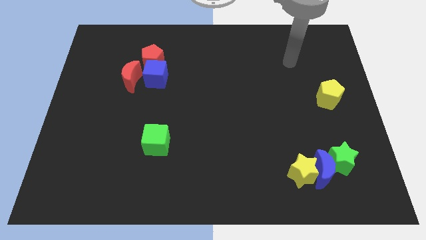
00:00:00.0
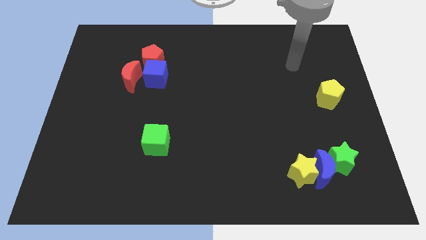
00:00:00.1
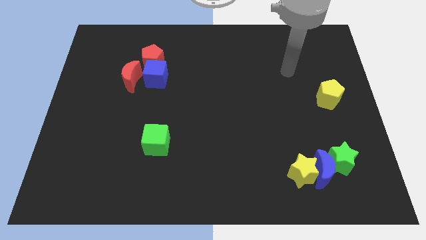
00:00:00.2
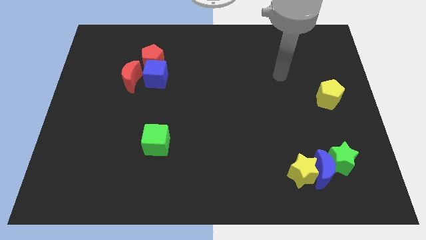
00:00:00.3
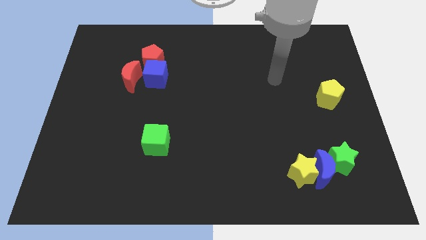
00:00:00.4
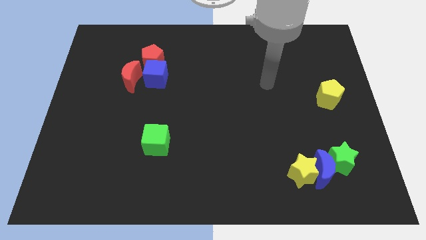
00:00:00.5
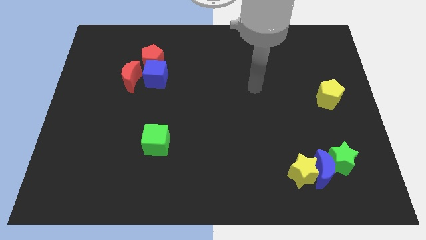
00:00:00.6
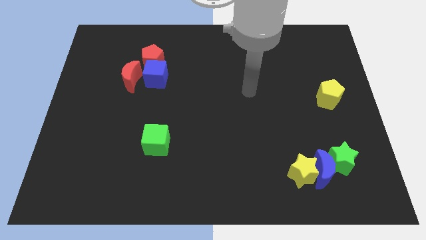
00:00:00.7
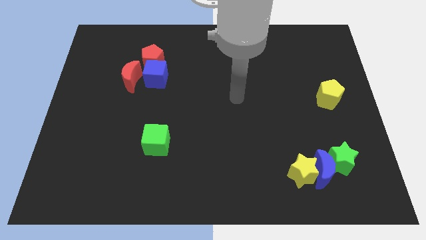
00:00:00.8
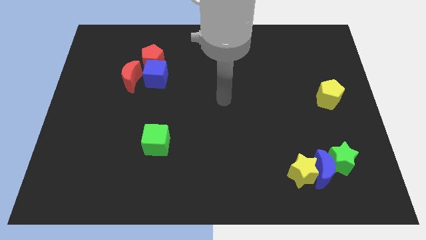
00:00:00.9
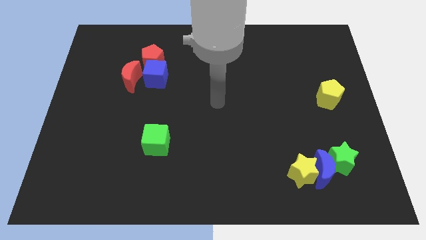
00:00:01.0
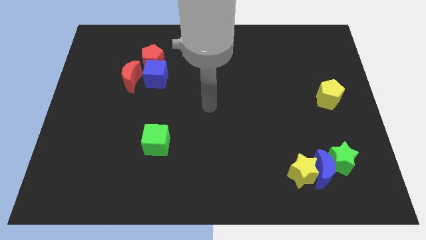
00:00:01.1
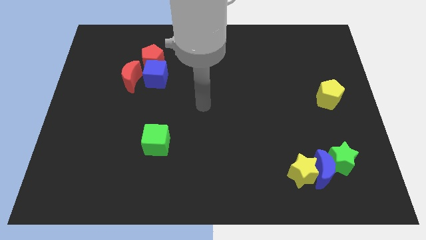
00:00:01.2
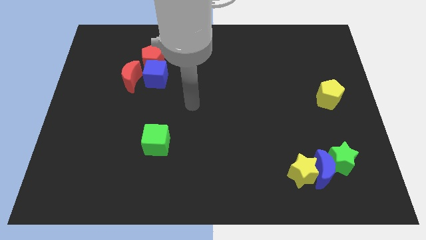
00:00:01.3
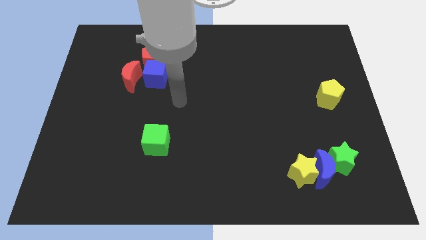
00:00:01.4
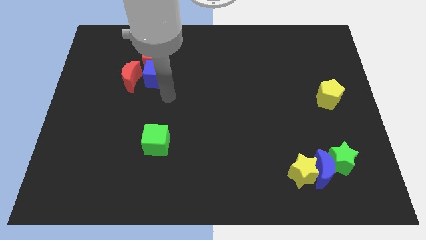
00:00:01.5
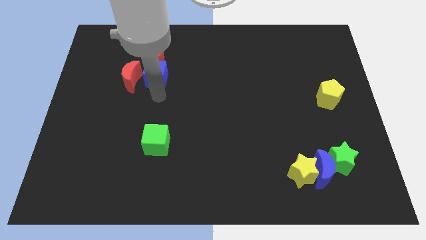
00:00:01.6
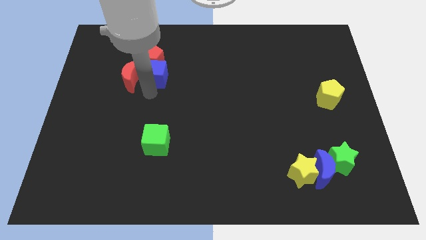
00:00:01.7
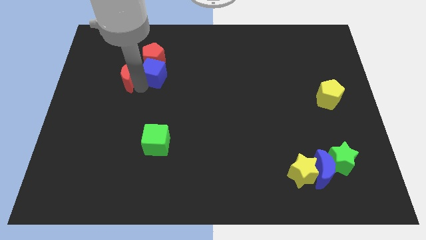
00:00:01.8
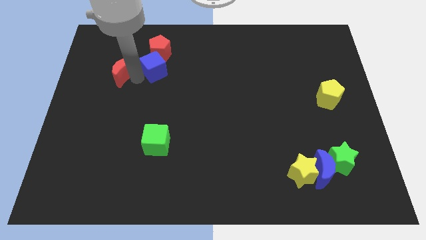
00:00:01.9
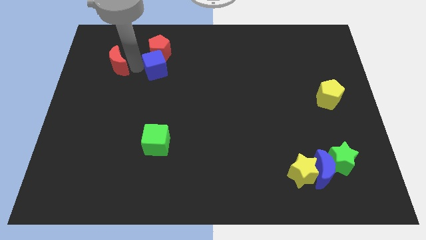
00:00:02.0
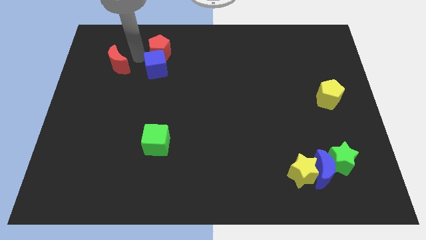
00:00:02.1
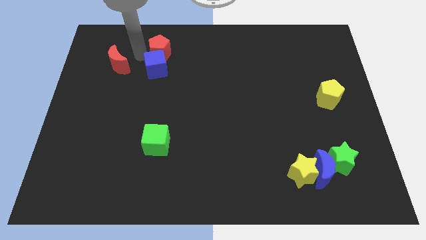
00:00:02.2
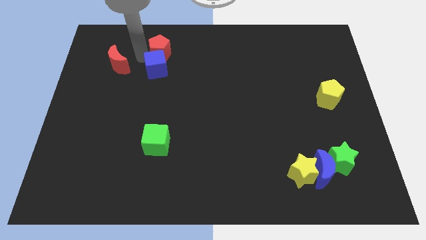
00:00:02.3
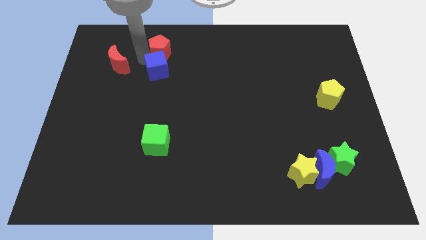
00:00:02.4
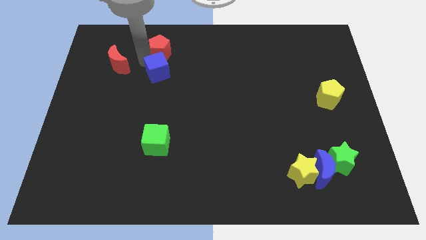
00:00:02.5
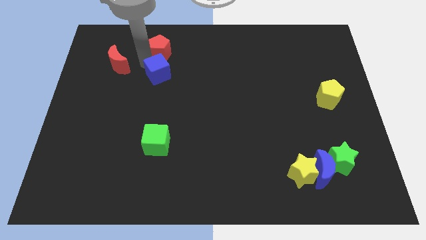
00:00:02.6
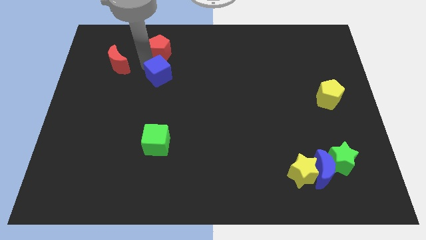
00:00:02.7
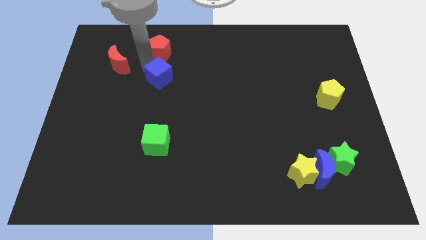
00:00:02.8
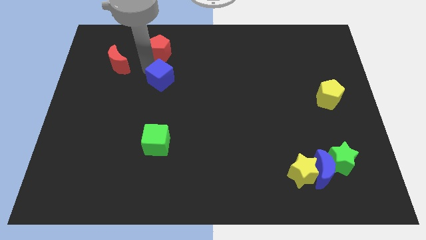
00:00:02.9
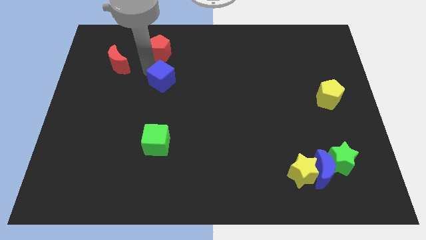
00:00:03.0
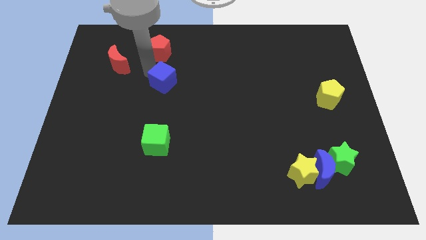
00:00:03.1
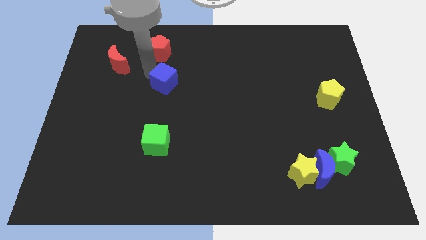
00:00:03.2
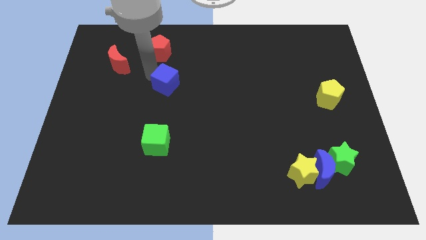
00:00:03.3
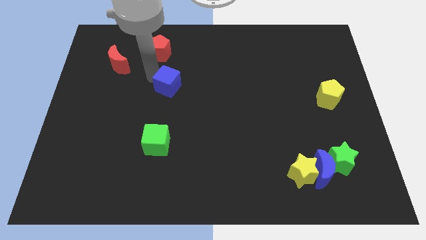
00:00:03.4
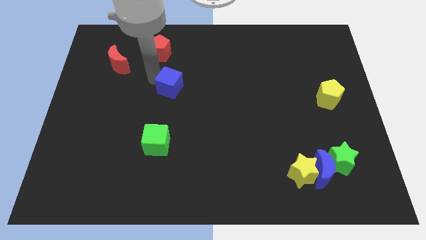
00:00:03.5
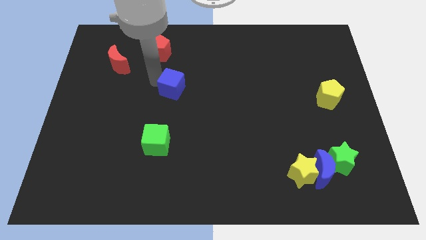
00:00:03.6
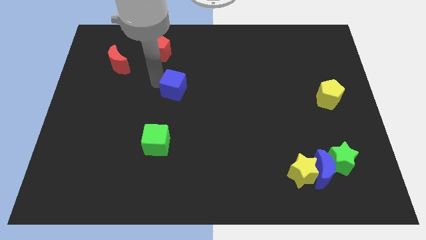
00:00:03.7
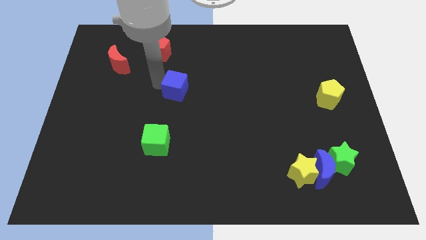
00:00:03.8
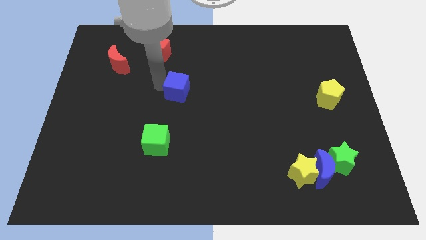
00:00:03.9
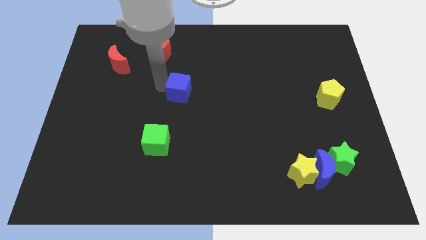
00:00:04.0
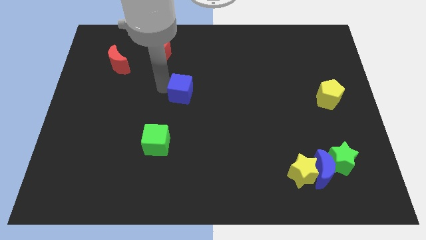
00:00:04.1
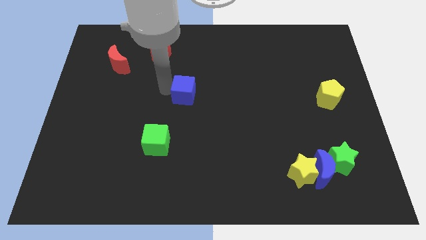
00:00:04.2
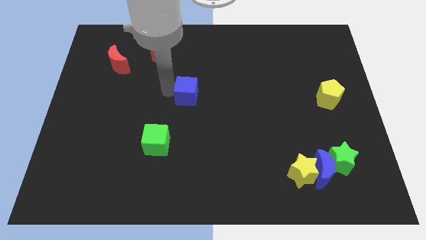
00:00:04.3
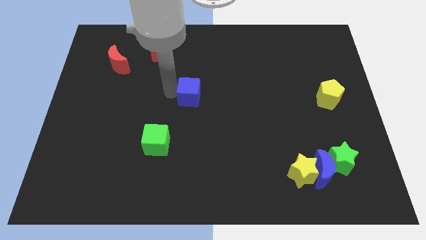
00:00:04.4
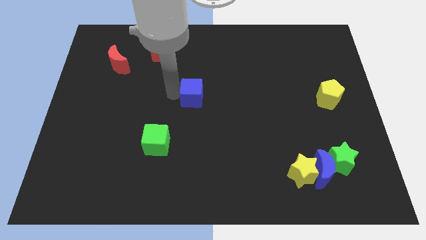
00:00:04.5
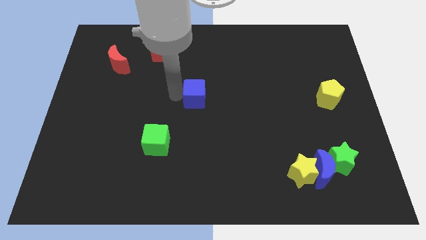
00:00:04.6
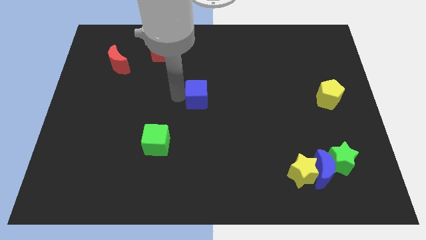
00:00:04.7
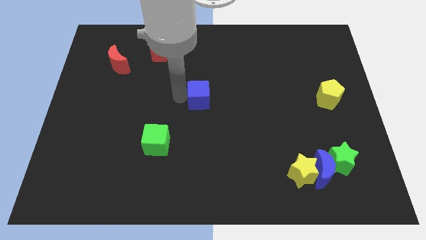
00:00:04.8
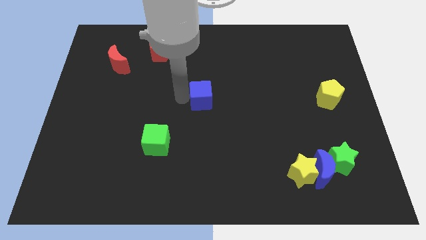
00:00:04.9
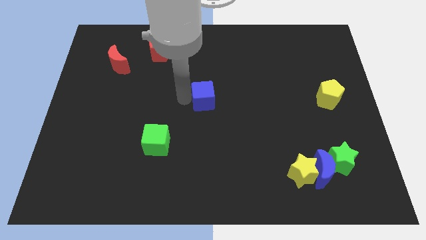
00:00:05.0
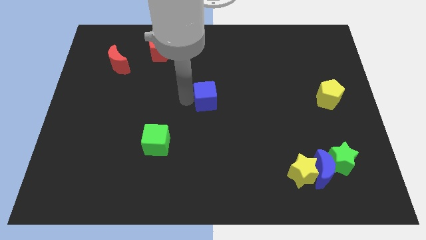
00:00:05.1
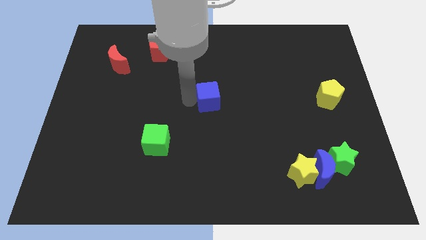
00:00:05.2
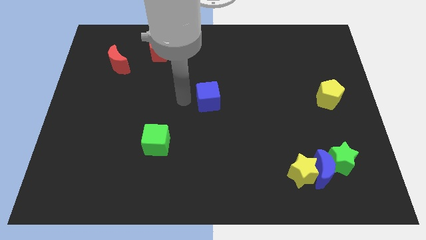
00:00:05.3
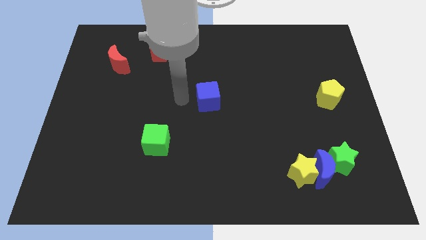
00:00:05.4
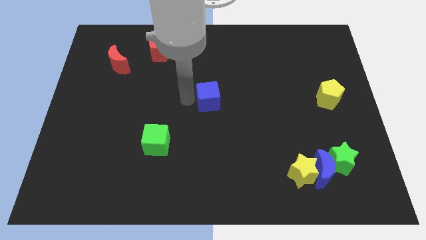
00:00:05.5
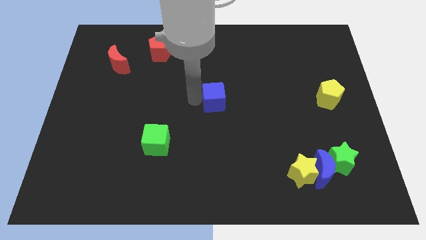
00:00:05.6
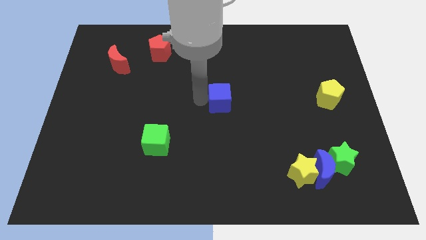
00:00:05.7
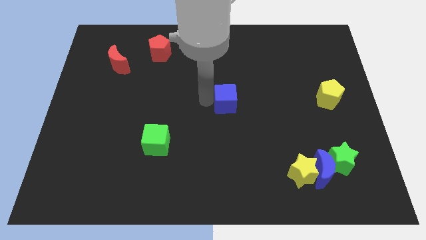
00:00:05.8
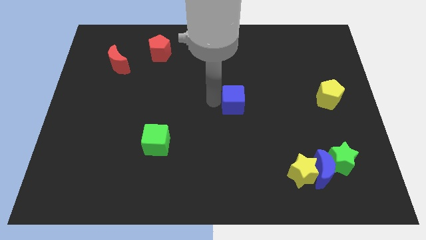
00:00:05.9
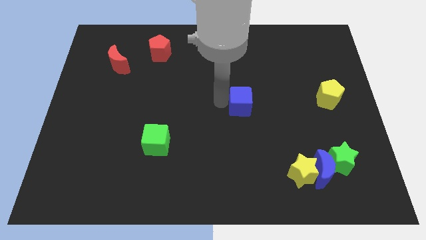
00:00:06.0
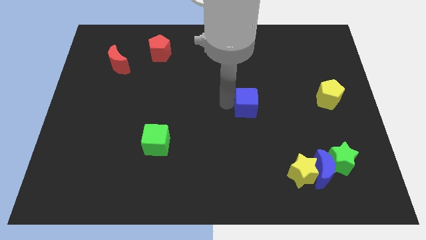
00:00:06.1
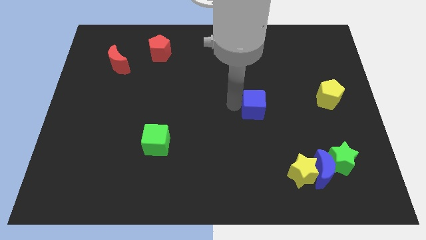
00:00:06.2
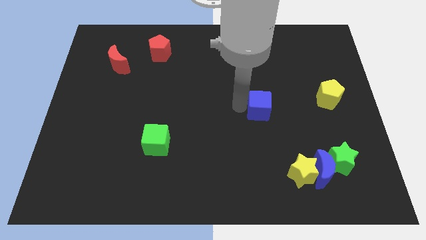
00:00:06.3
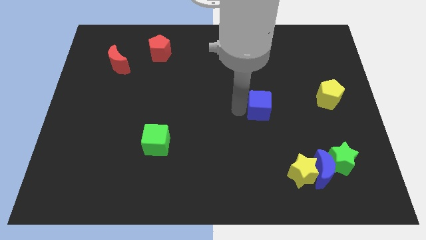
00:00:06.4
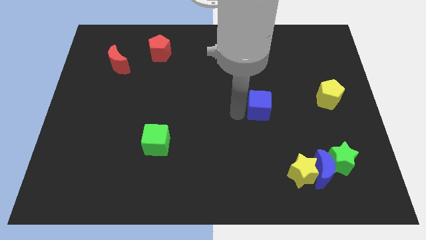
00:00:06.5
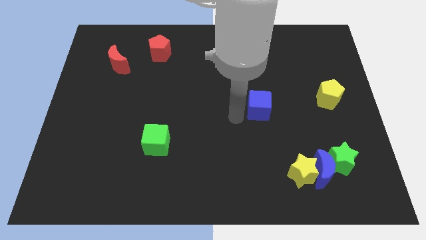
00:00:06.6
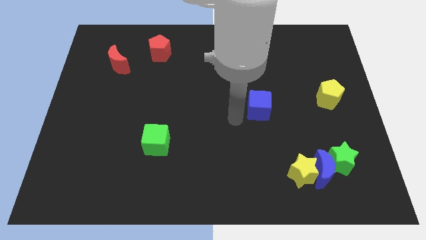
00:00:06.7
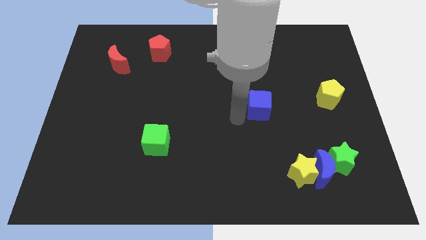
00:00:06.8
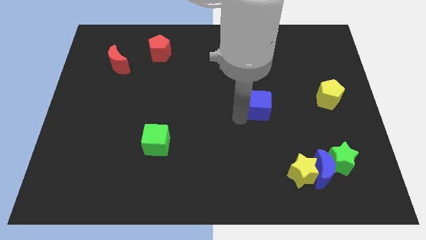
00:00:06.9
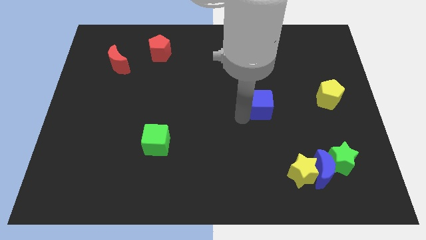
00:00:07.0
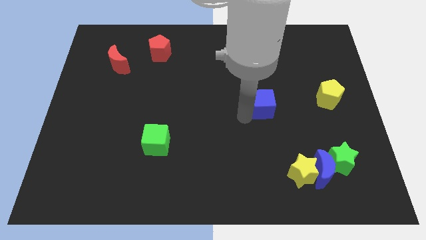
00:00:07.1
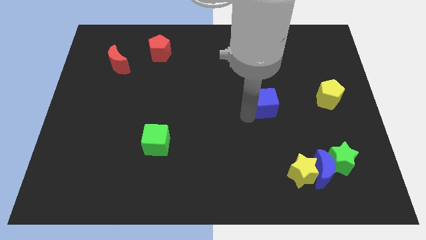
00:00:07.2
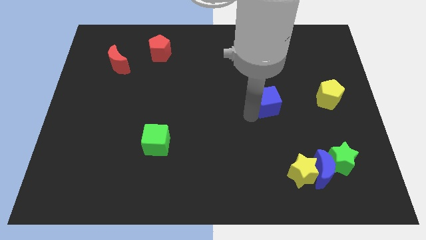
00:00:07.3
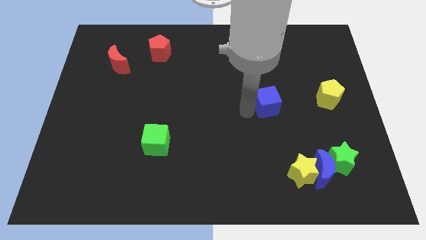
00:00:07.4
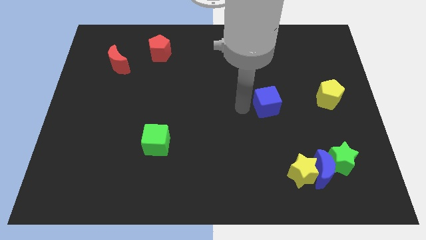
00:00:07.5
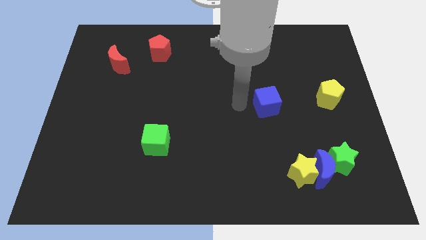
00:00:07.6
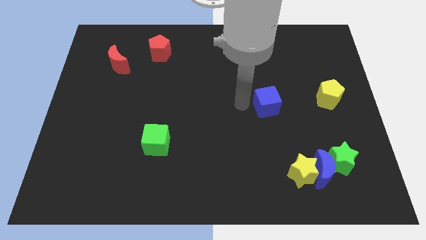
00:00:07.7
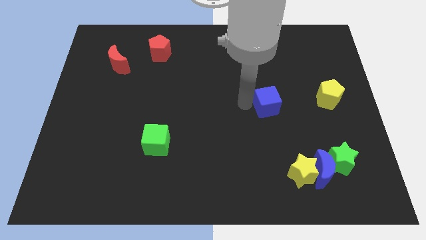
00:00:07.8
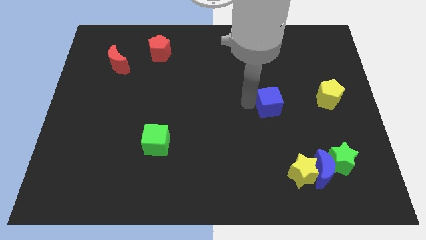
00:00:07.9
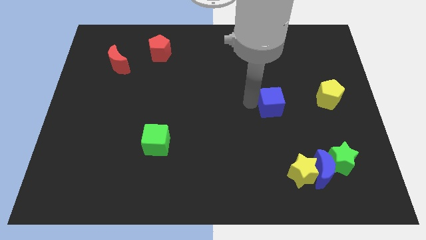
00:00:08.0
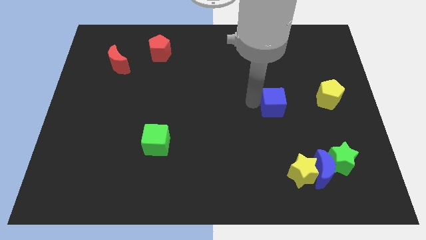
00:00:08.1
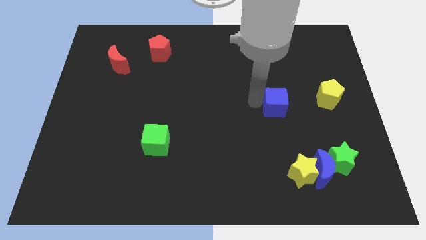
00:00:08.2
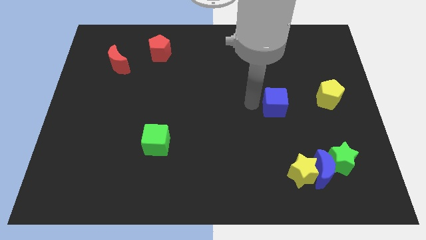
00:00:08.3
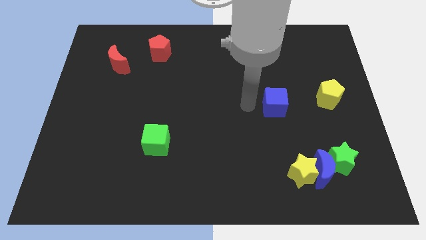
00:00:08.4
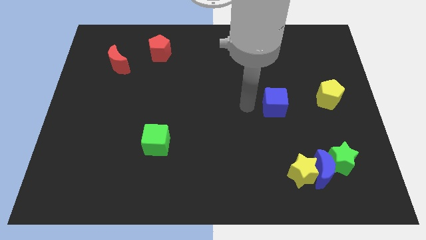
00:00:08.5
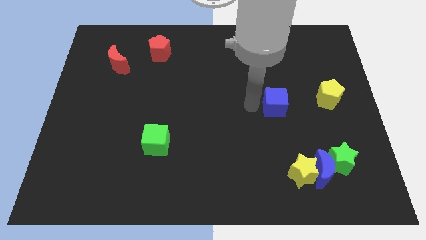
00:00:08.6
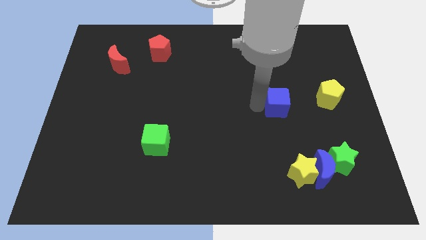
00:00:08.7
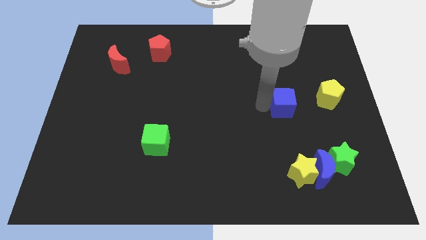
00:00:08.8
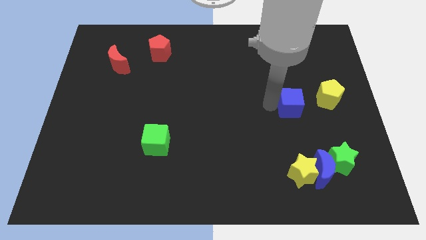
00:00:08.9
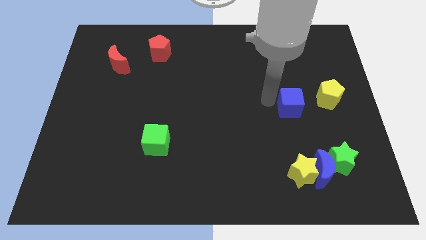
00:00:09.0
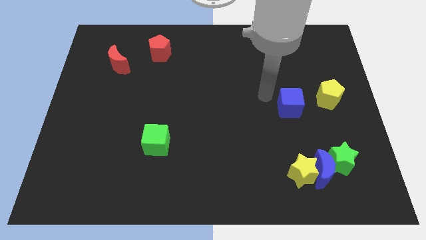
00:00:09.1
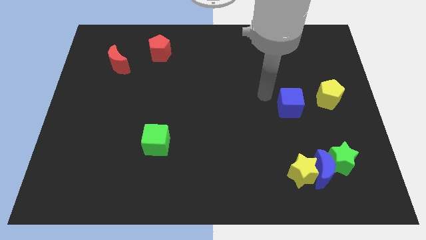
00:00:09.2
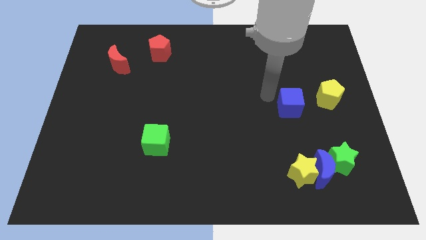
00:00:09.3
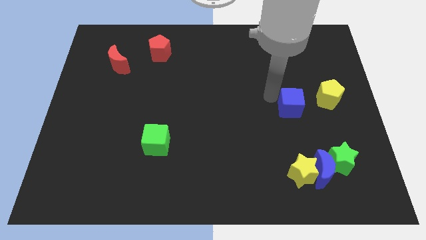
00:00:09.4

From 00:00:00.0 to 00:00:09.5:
put the blue cube to the bottom left side of the yellow pentagon
